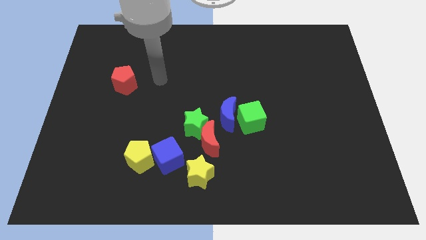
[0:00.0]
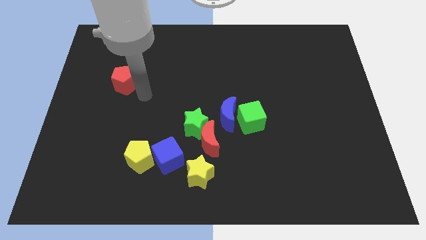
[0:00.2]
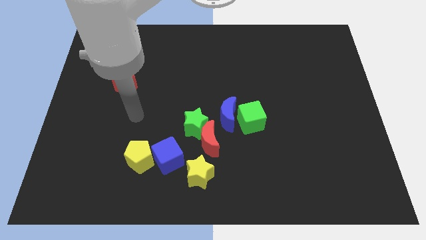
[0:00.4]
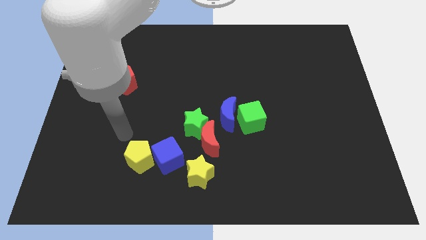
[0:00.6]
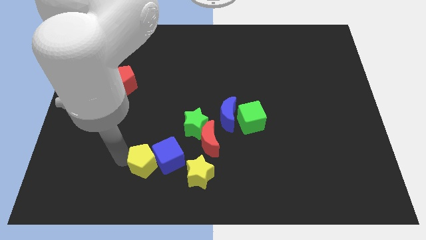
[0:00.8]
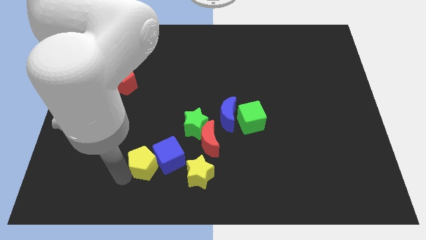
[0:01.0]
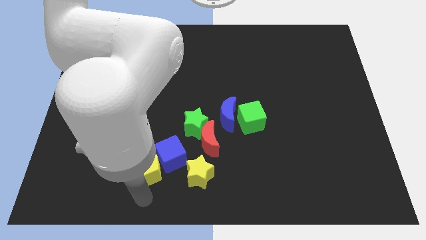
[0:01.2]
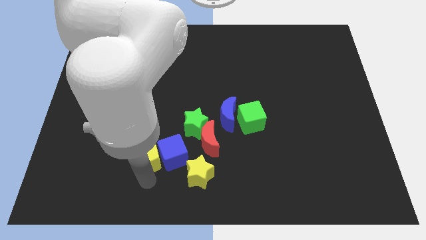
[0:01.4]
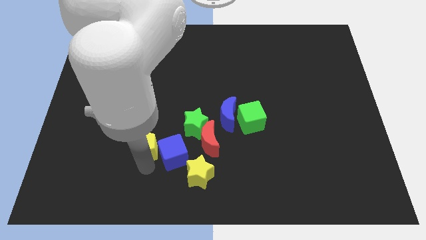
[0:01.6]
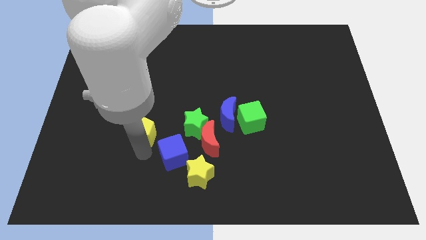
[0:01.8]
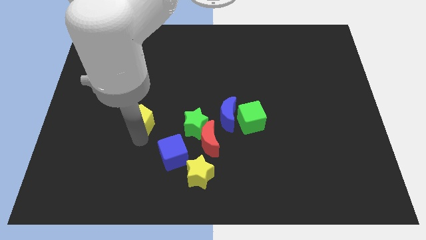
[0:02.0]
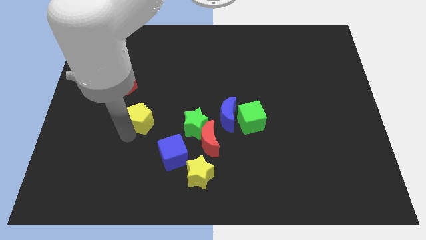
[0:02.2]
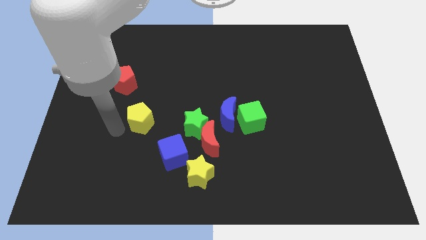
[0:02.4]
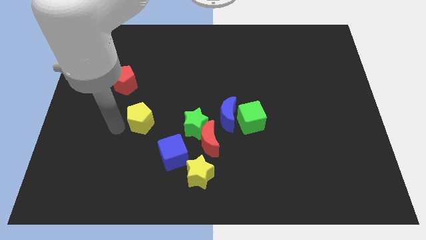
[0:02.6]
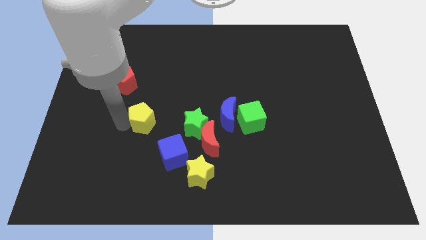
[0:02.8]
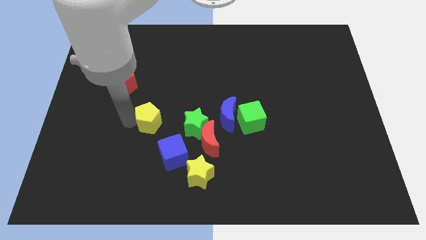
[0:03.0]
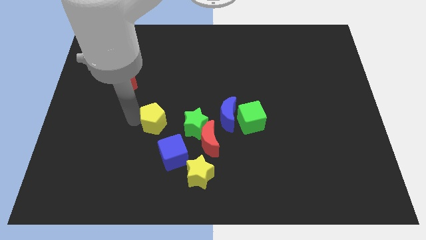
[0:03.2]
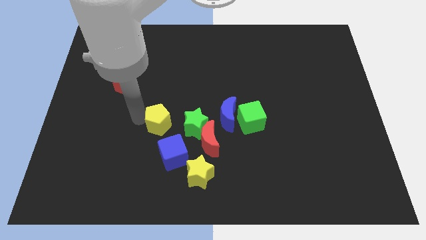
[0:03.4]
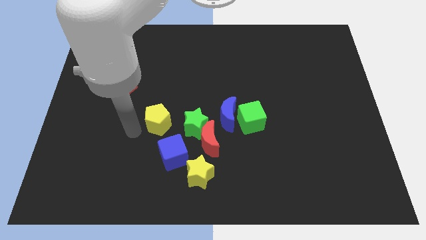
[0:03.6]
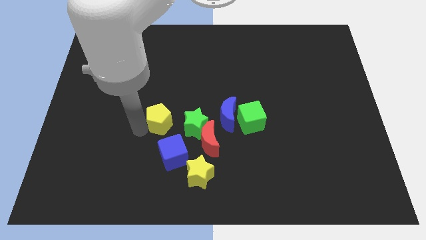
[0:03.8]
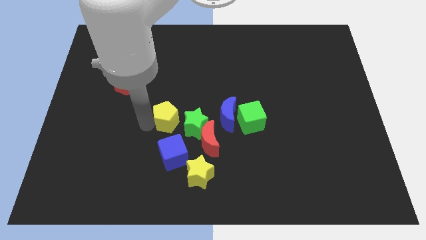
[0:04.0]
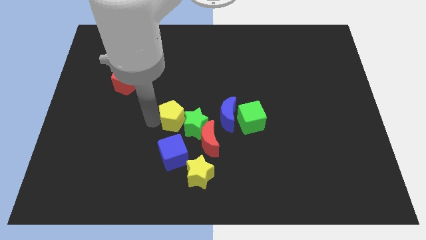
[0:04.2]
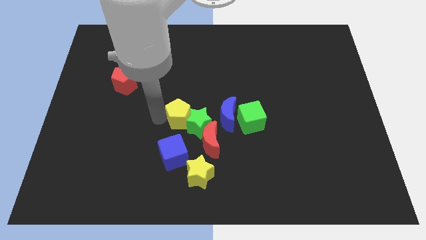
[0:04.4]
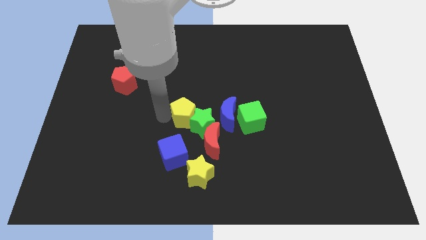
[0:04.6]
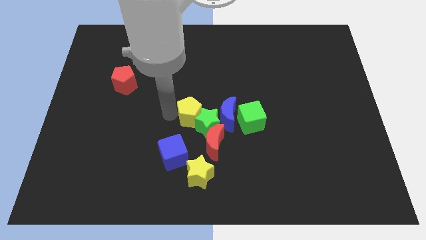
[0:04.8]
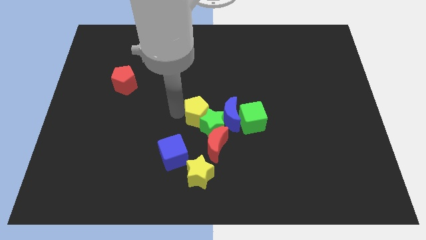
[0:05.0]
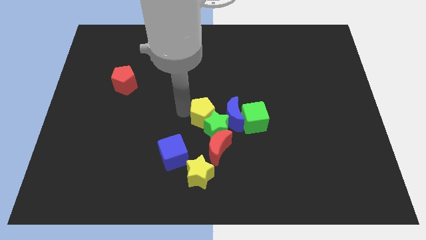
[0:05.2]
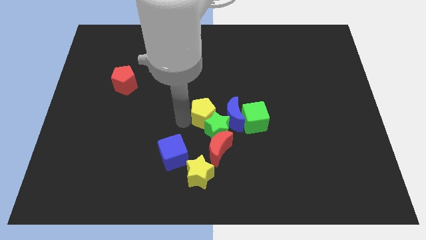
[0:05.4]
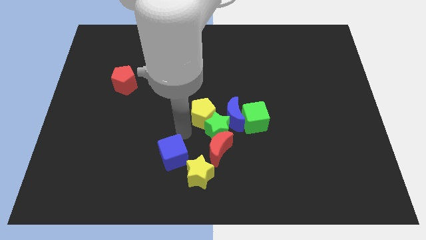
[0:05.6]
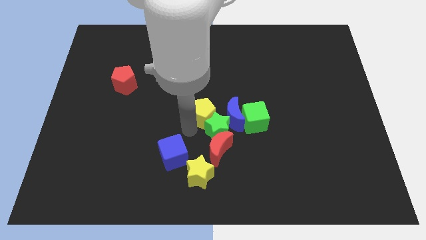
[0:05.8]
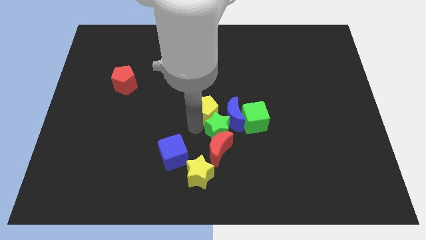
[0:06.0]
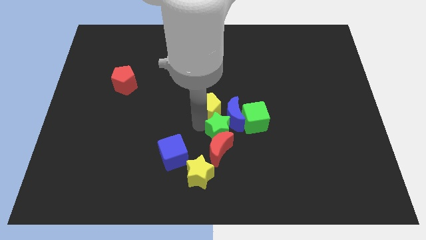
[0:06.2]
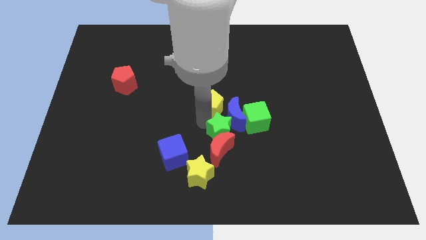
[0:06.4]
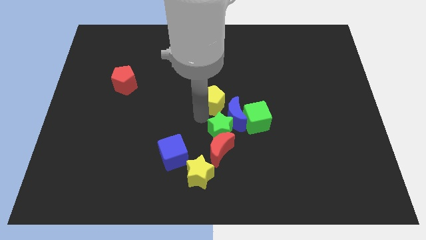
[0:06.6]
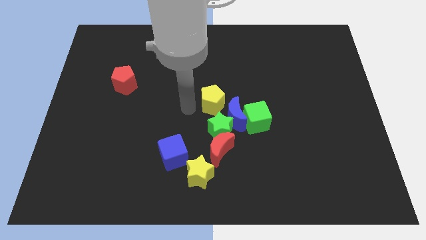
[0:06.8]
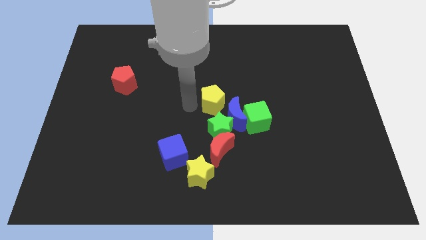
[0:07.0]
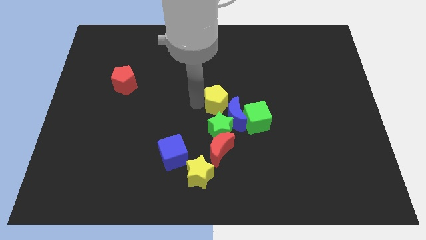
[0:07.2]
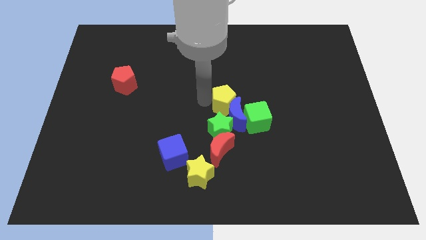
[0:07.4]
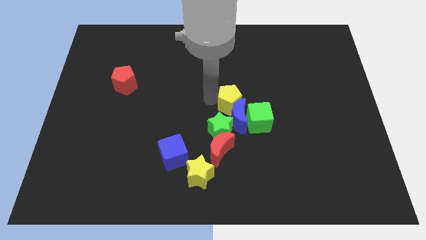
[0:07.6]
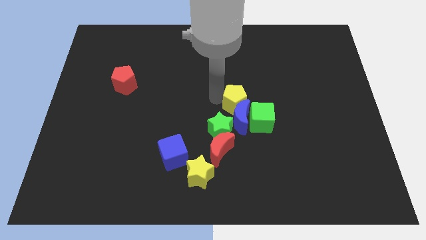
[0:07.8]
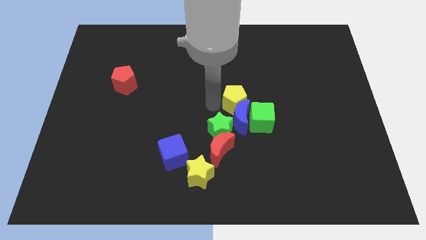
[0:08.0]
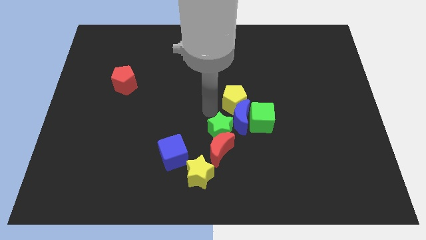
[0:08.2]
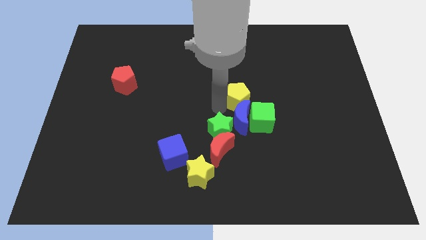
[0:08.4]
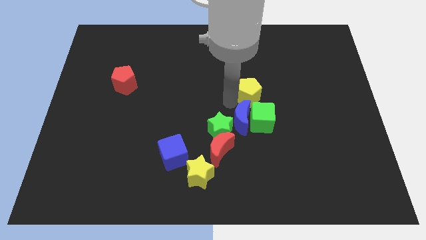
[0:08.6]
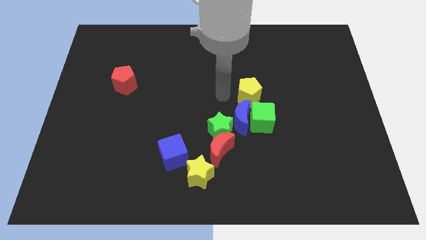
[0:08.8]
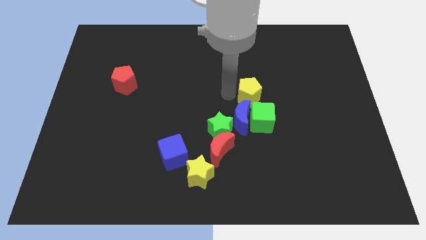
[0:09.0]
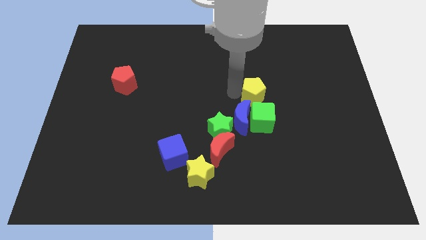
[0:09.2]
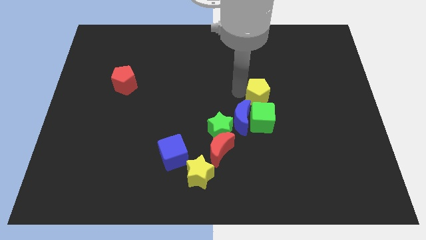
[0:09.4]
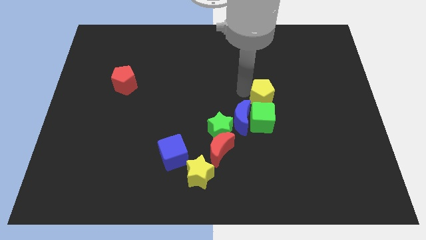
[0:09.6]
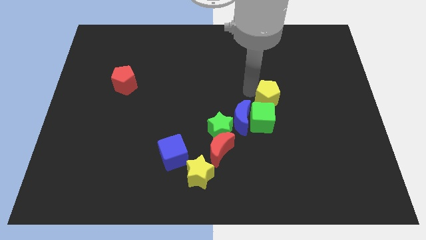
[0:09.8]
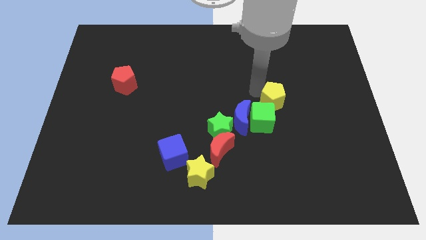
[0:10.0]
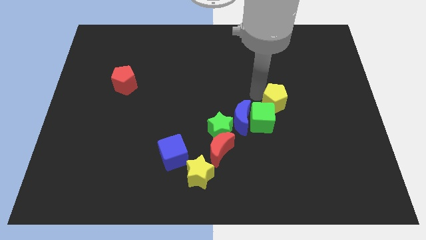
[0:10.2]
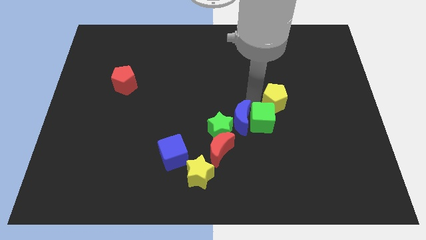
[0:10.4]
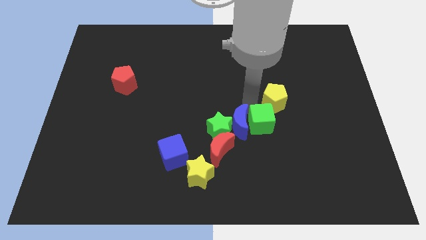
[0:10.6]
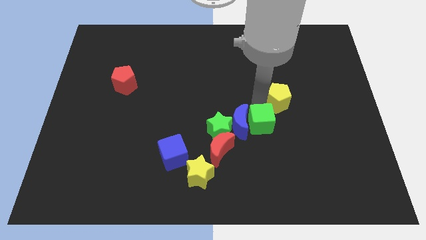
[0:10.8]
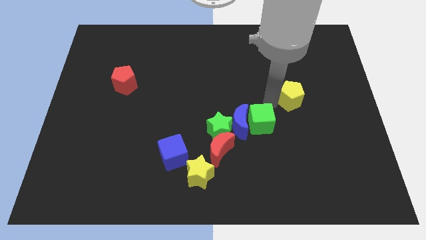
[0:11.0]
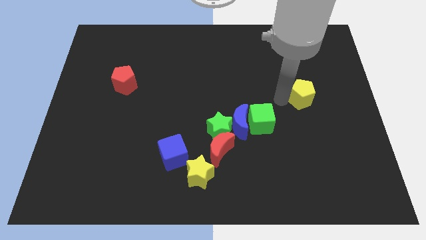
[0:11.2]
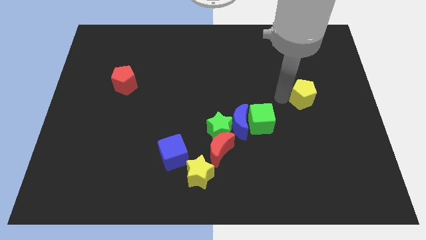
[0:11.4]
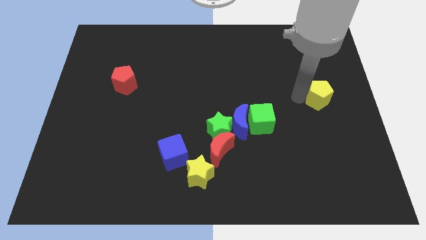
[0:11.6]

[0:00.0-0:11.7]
push the yellow pentagon to the center right
